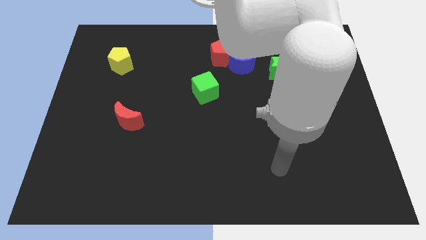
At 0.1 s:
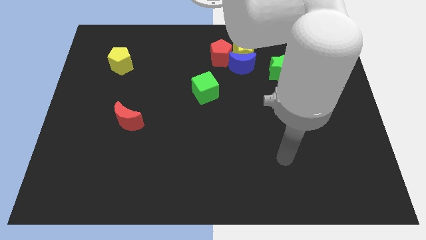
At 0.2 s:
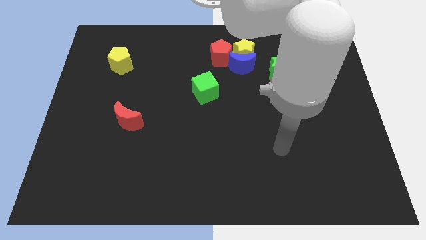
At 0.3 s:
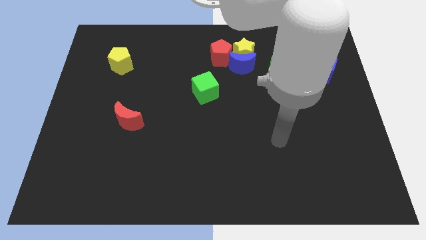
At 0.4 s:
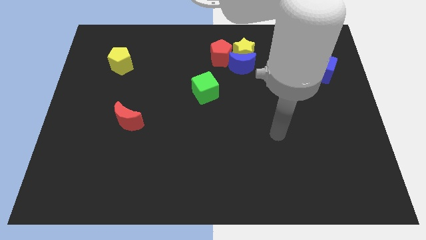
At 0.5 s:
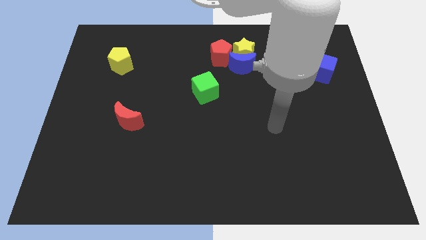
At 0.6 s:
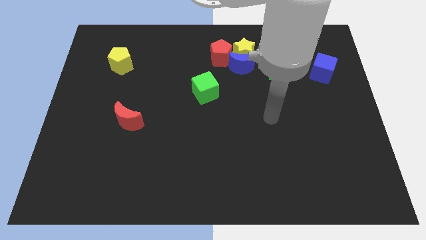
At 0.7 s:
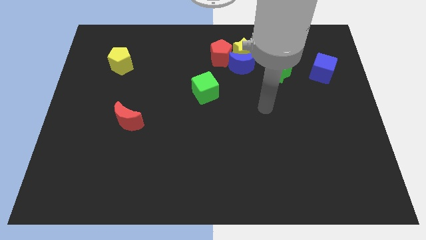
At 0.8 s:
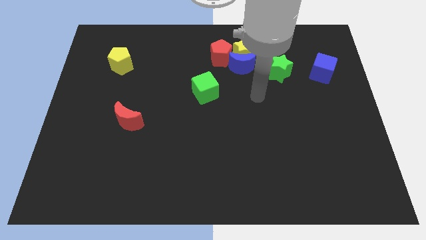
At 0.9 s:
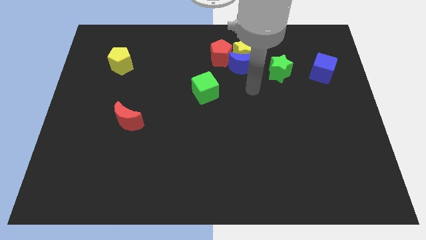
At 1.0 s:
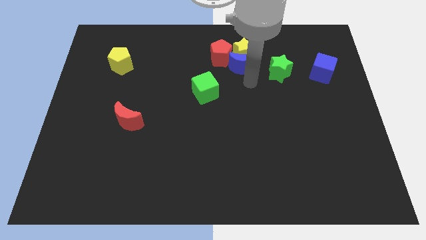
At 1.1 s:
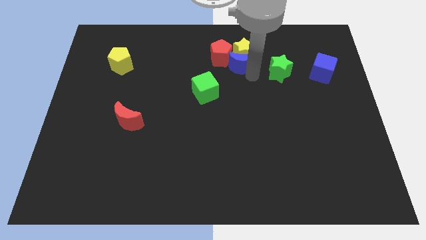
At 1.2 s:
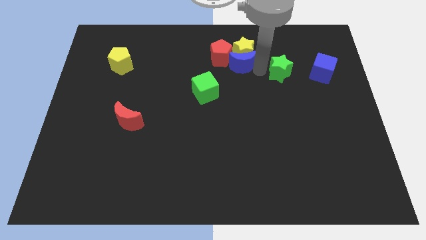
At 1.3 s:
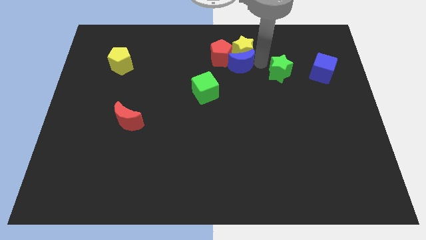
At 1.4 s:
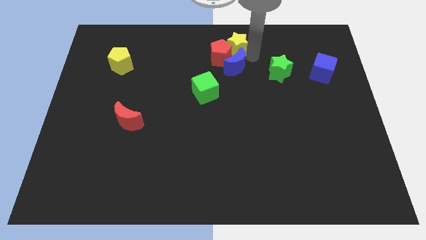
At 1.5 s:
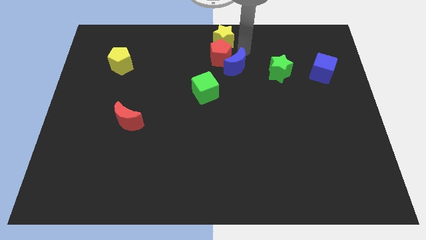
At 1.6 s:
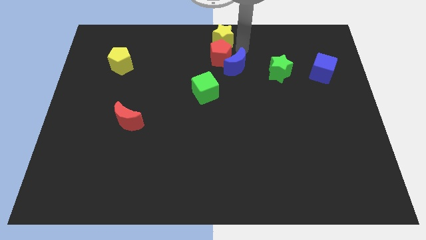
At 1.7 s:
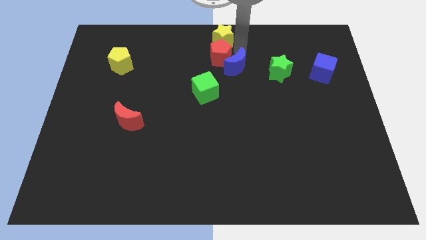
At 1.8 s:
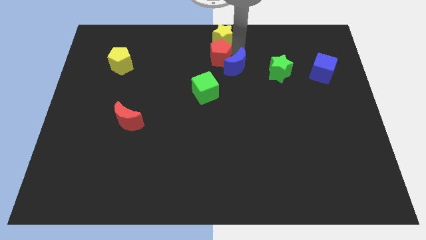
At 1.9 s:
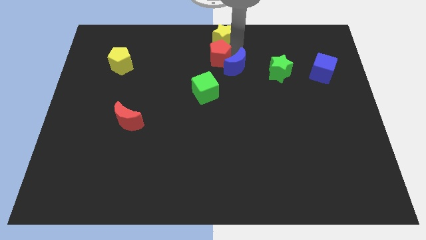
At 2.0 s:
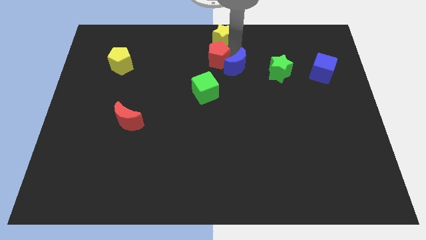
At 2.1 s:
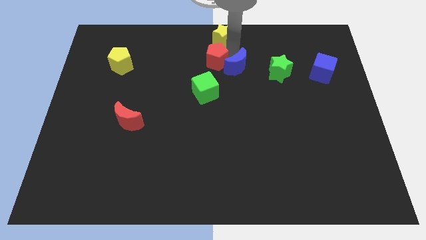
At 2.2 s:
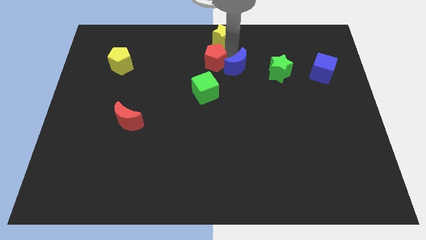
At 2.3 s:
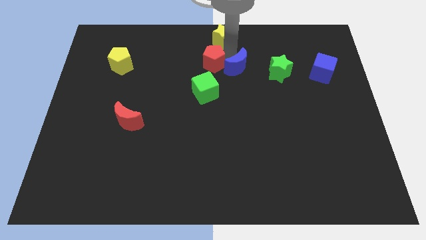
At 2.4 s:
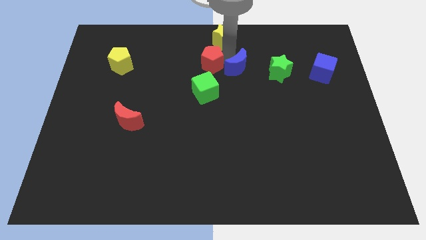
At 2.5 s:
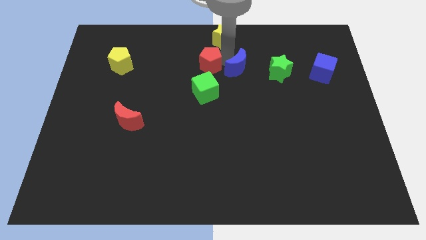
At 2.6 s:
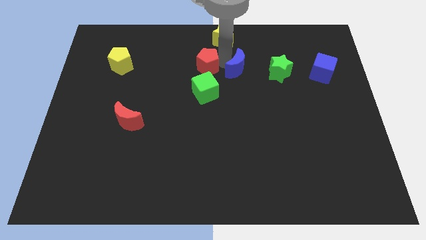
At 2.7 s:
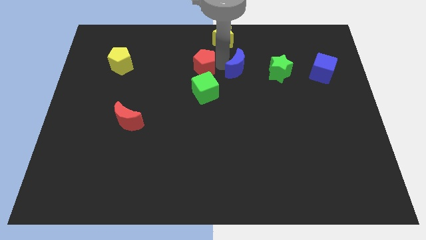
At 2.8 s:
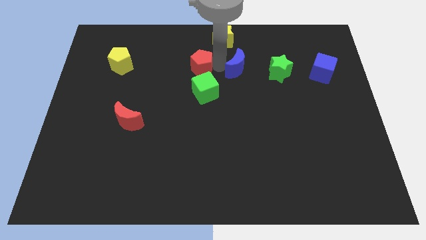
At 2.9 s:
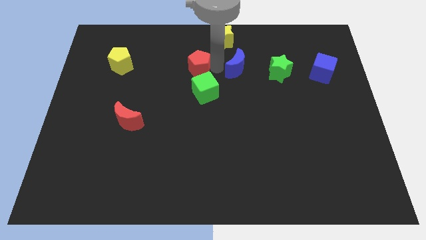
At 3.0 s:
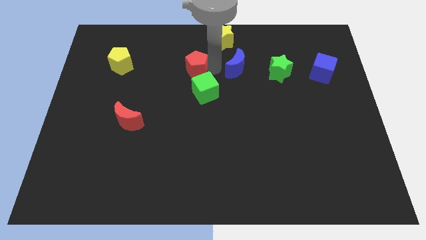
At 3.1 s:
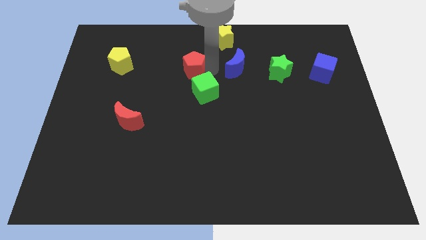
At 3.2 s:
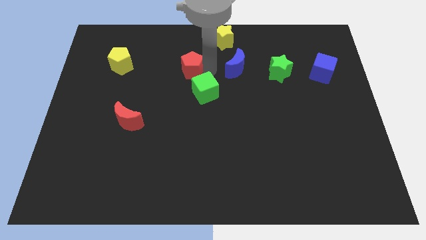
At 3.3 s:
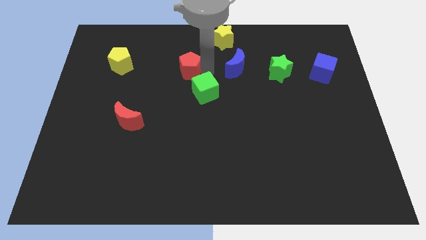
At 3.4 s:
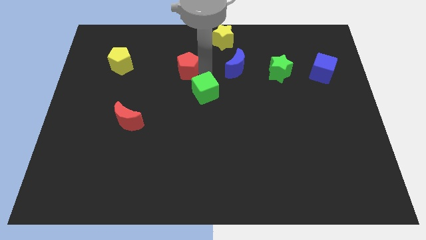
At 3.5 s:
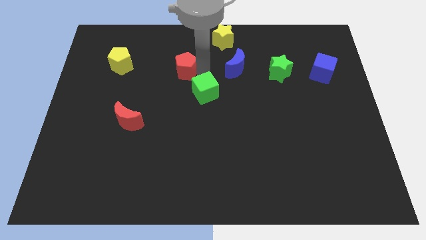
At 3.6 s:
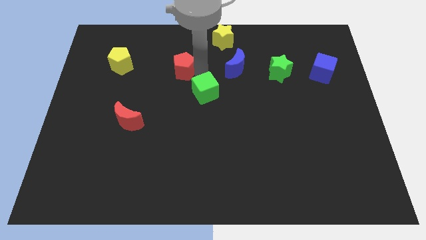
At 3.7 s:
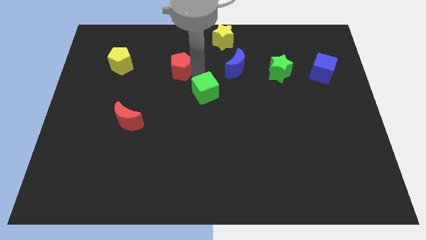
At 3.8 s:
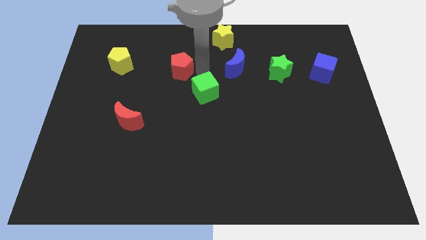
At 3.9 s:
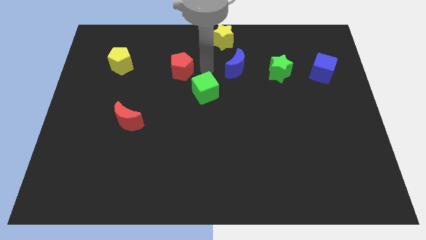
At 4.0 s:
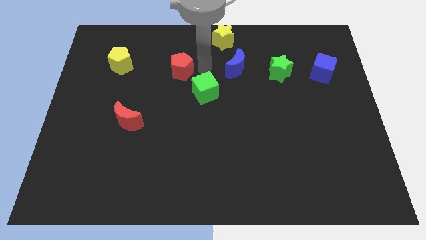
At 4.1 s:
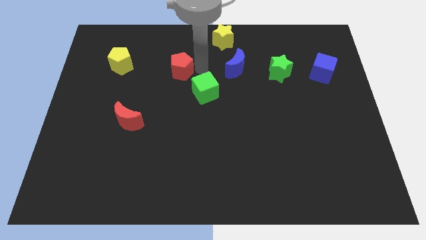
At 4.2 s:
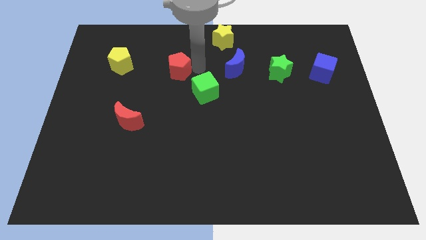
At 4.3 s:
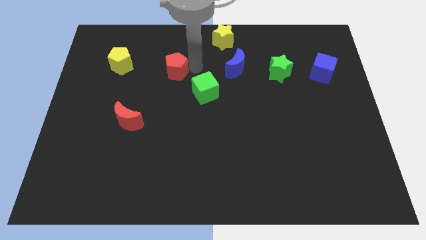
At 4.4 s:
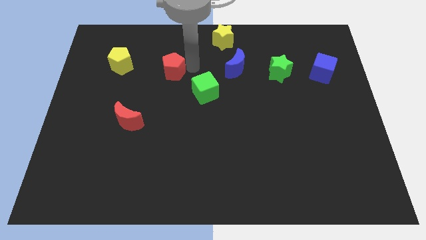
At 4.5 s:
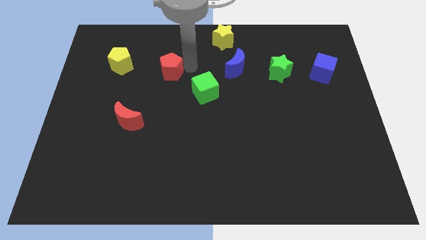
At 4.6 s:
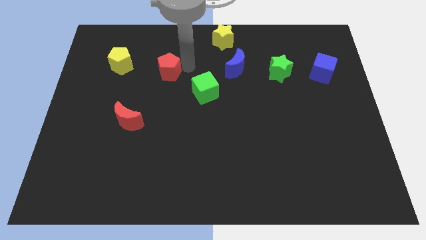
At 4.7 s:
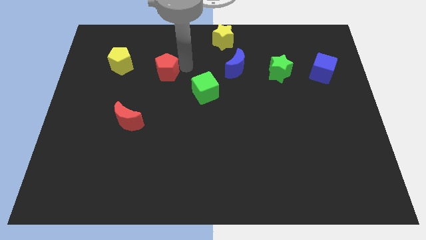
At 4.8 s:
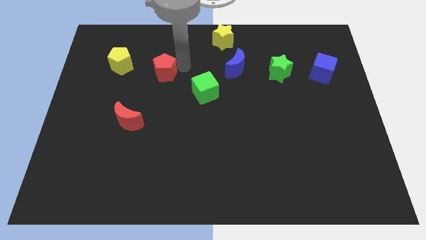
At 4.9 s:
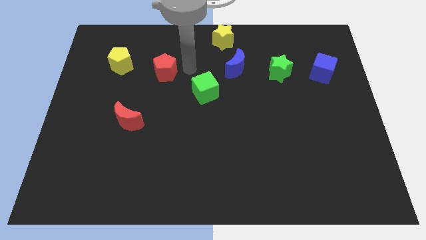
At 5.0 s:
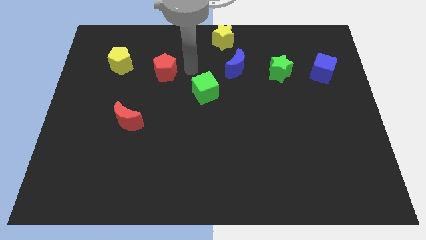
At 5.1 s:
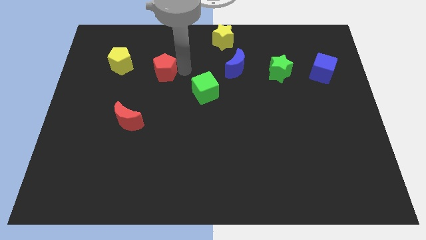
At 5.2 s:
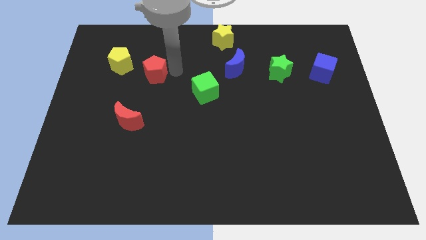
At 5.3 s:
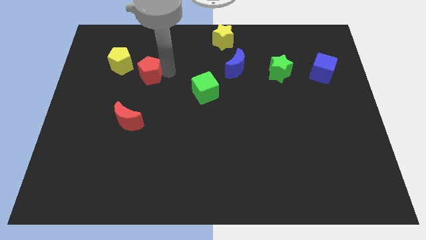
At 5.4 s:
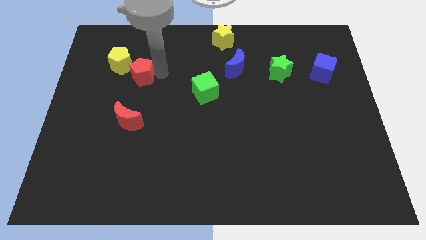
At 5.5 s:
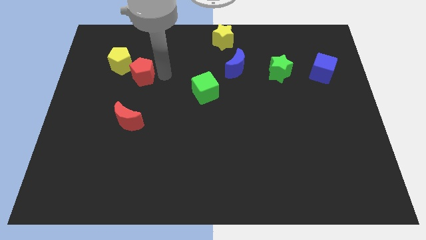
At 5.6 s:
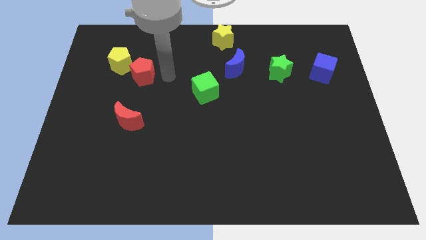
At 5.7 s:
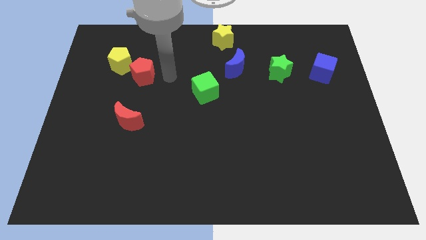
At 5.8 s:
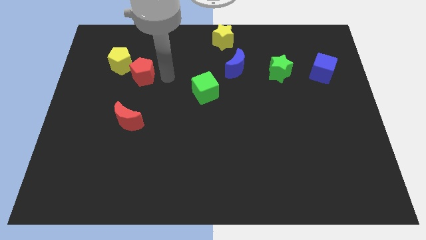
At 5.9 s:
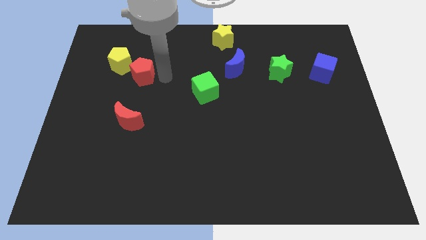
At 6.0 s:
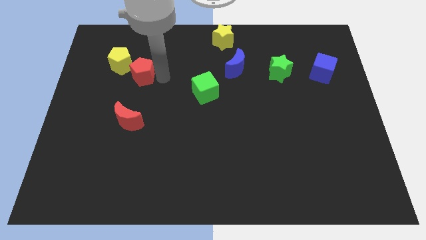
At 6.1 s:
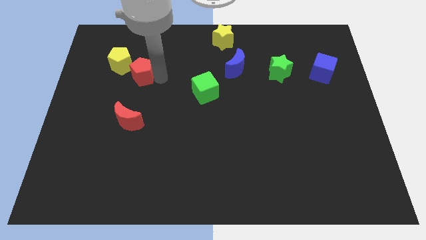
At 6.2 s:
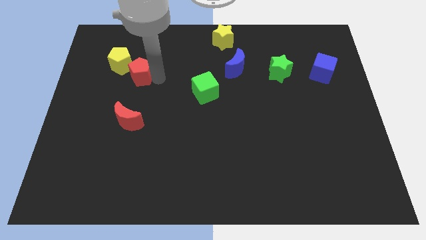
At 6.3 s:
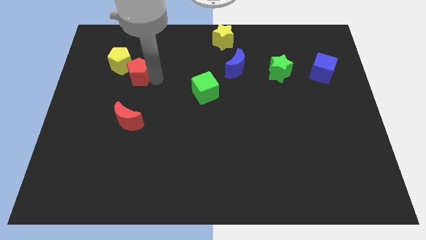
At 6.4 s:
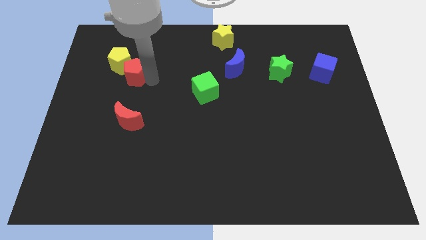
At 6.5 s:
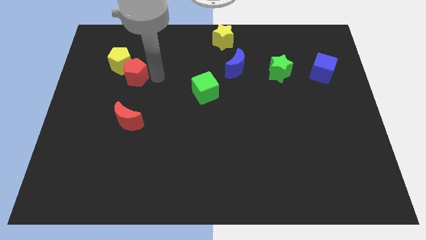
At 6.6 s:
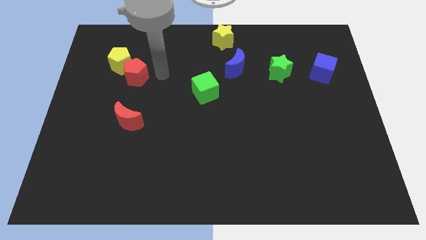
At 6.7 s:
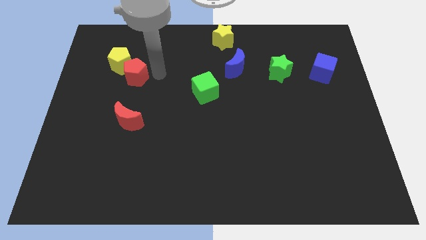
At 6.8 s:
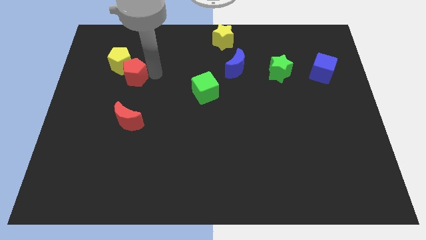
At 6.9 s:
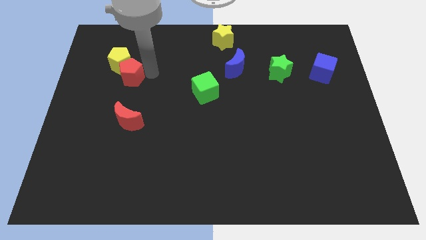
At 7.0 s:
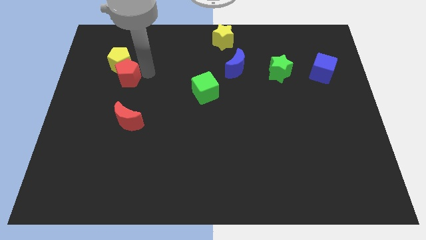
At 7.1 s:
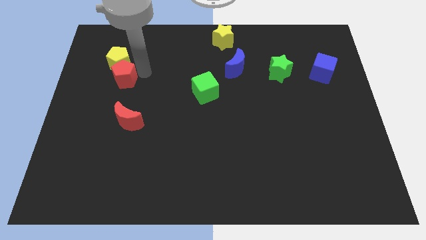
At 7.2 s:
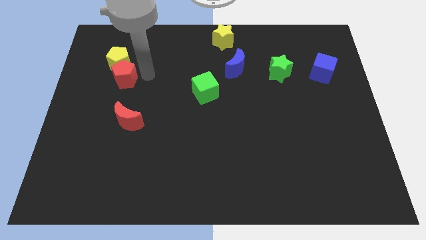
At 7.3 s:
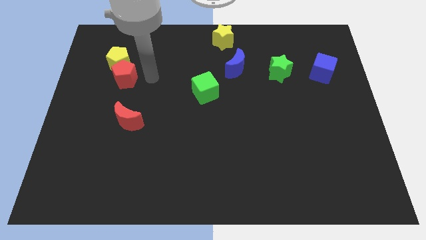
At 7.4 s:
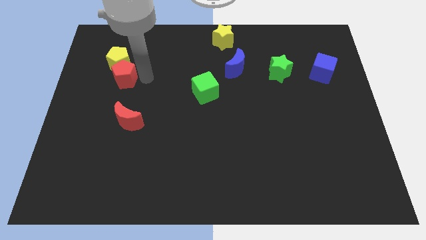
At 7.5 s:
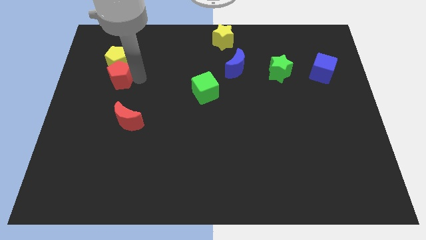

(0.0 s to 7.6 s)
push the red pentagon to the bottom left of the yellow pentagon
